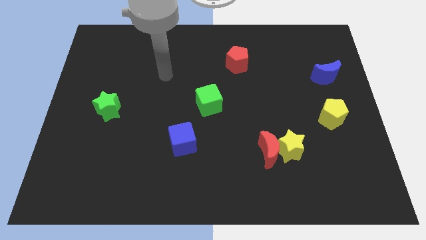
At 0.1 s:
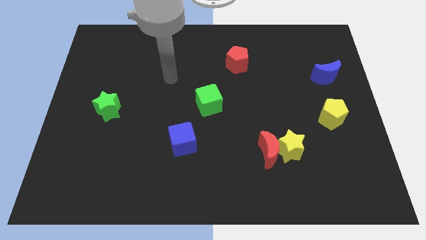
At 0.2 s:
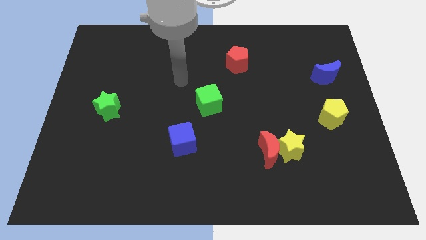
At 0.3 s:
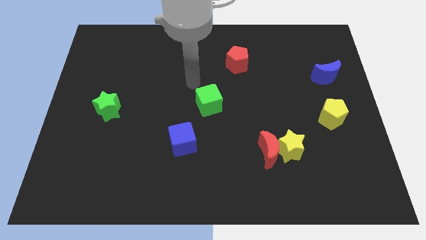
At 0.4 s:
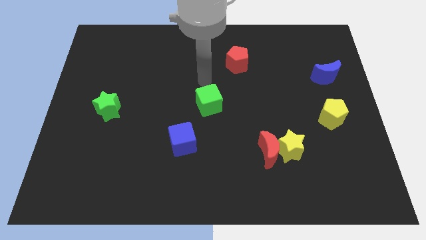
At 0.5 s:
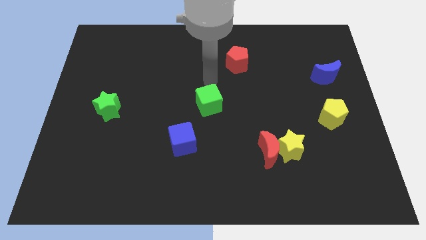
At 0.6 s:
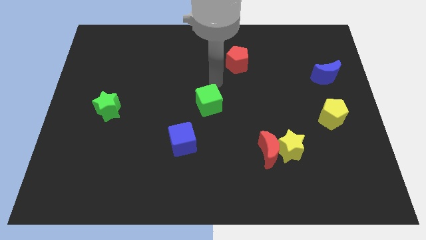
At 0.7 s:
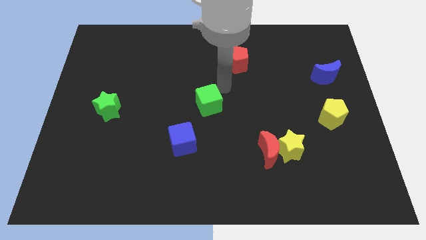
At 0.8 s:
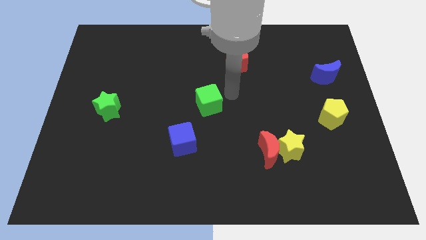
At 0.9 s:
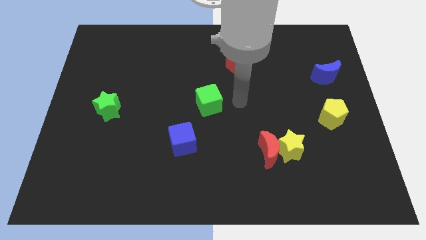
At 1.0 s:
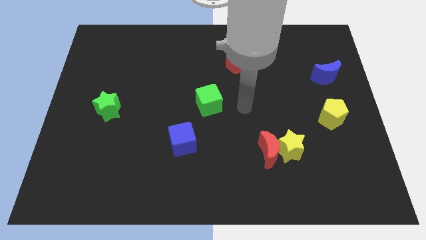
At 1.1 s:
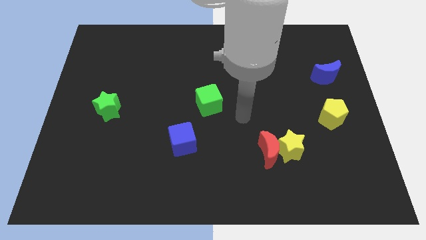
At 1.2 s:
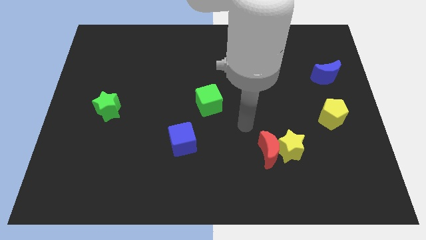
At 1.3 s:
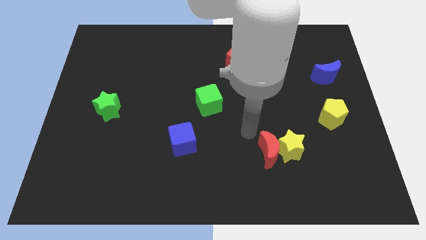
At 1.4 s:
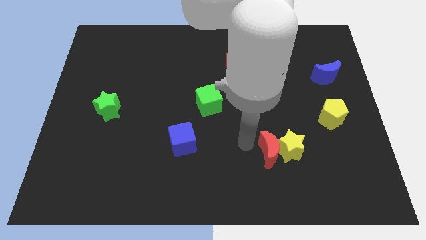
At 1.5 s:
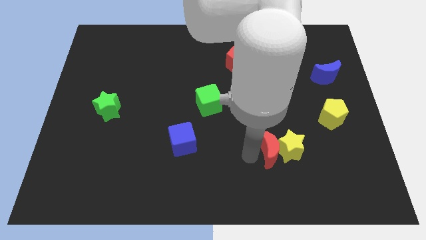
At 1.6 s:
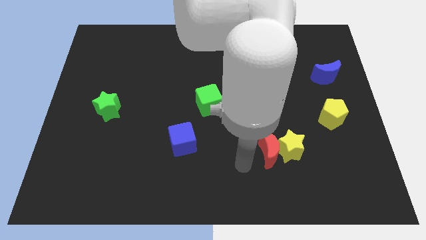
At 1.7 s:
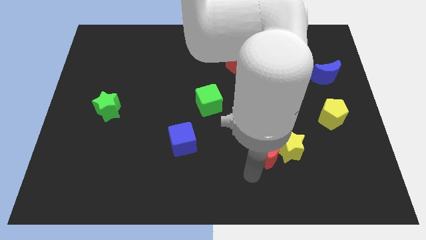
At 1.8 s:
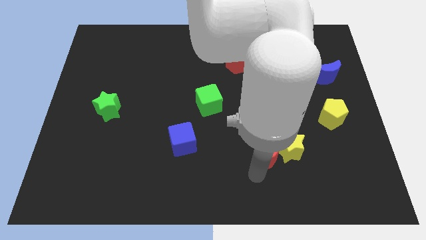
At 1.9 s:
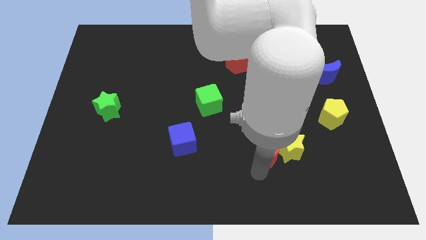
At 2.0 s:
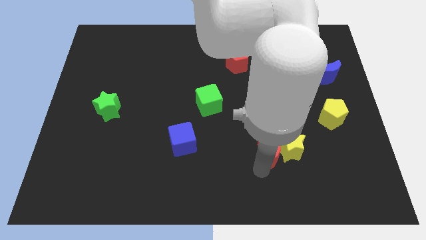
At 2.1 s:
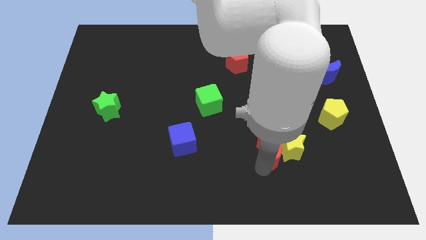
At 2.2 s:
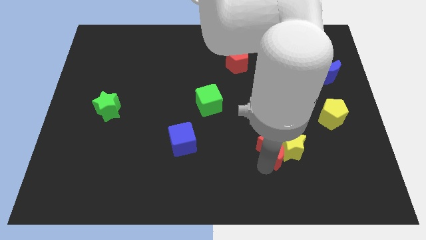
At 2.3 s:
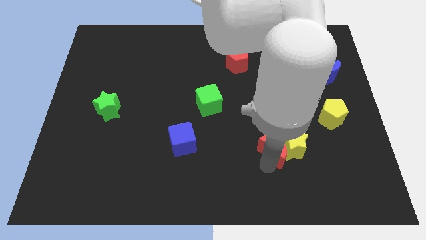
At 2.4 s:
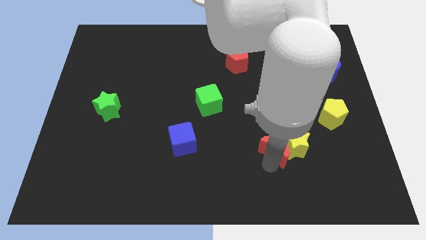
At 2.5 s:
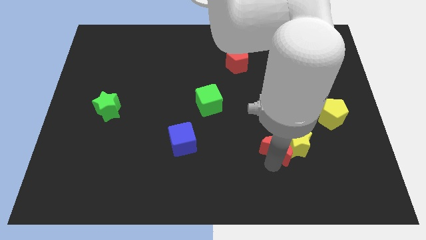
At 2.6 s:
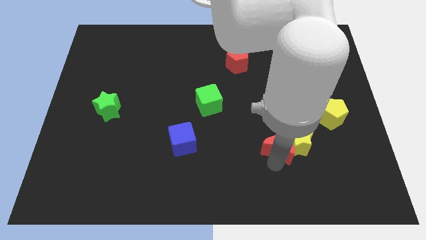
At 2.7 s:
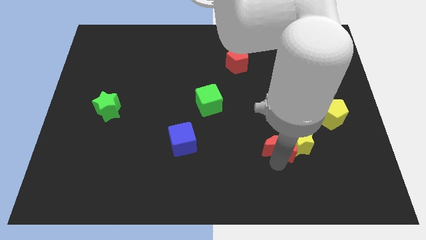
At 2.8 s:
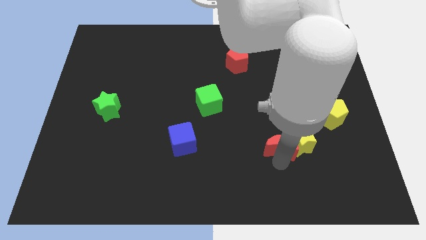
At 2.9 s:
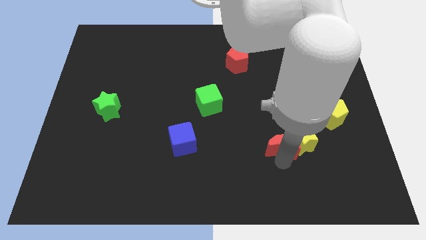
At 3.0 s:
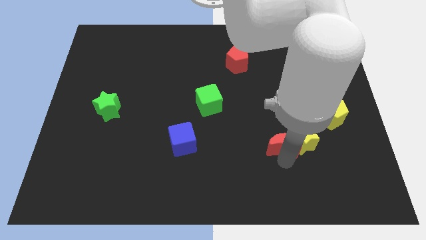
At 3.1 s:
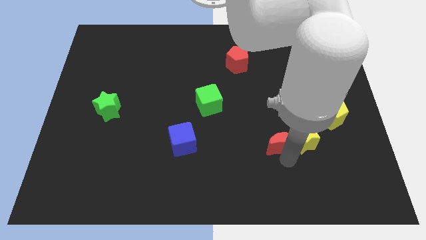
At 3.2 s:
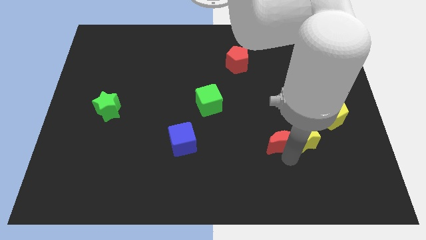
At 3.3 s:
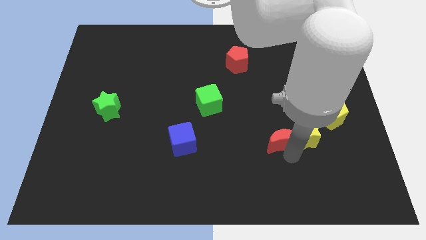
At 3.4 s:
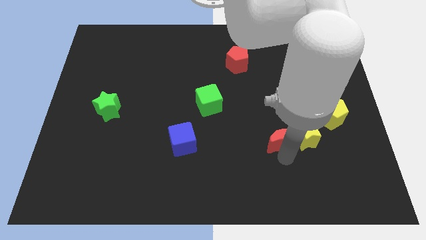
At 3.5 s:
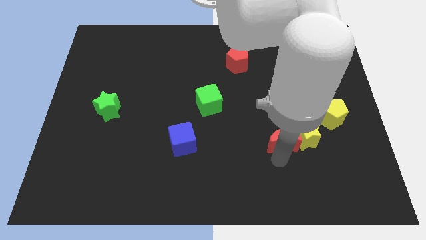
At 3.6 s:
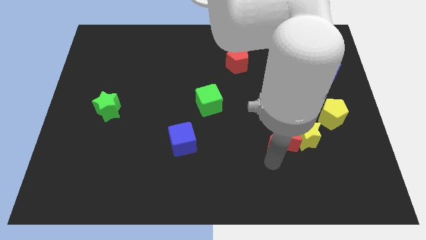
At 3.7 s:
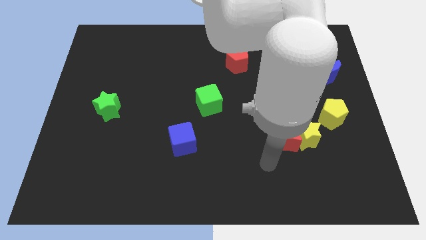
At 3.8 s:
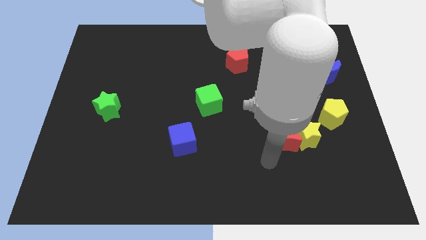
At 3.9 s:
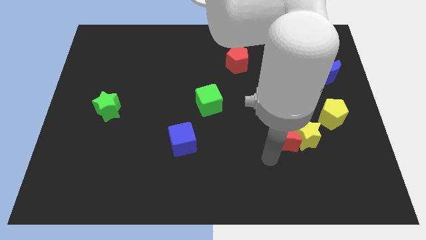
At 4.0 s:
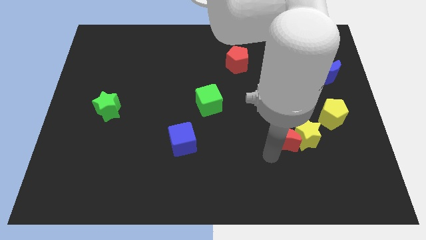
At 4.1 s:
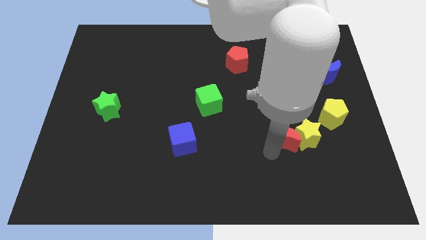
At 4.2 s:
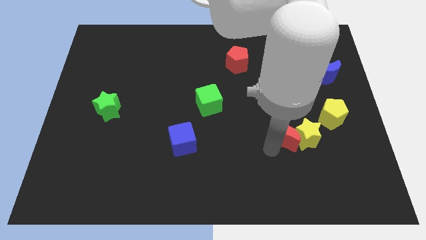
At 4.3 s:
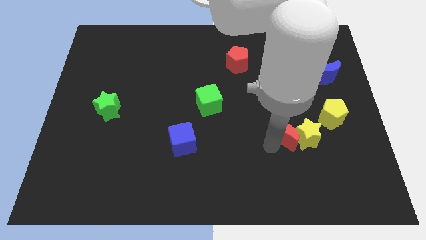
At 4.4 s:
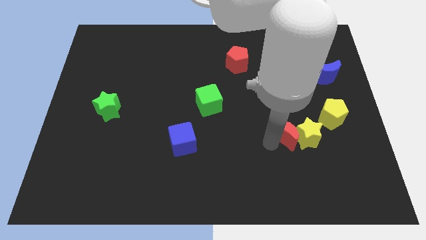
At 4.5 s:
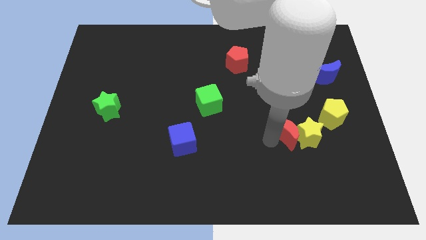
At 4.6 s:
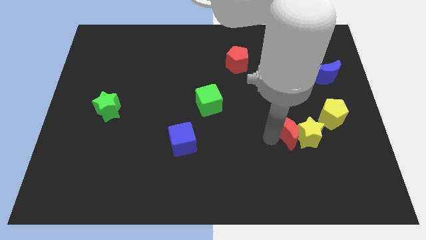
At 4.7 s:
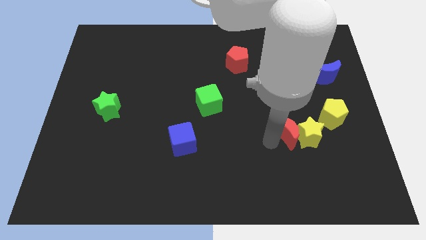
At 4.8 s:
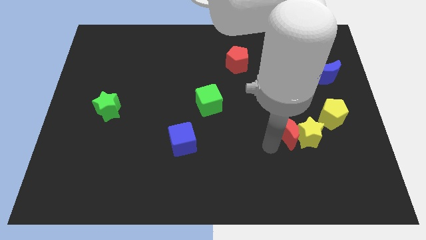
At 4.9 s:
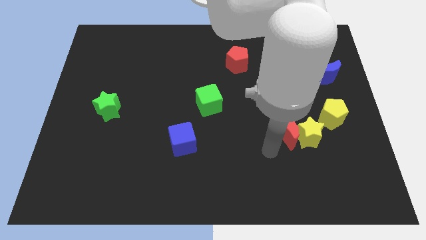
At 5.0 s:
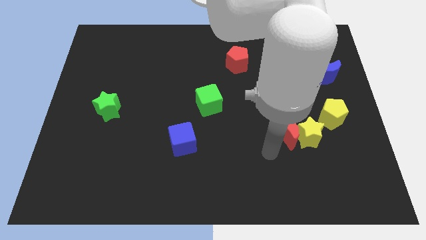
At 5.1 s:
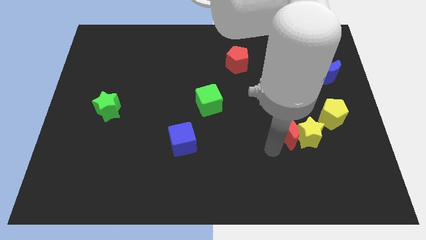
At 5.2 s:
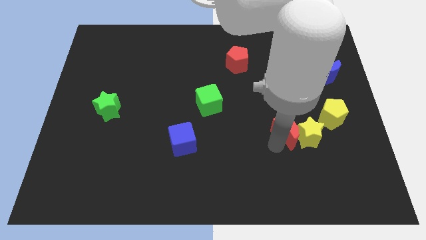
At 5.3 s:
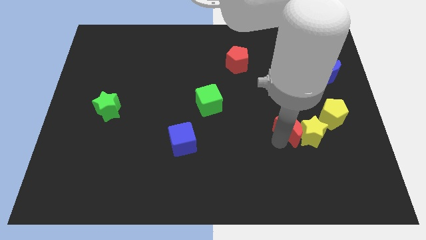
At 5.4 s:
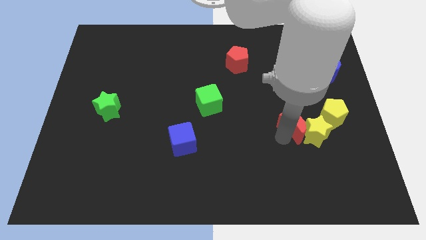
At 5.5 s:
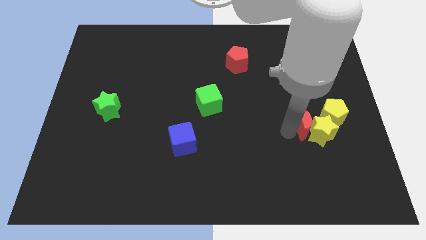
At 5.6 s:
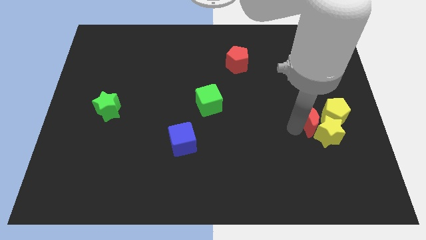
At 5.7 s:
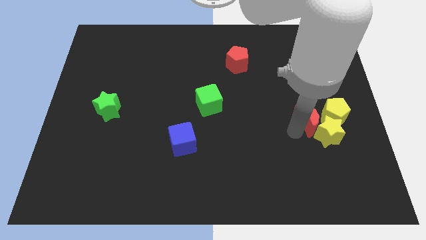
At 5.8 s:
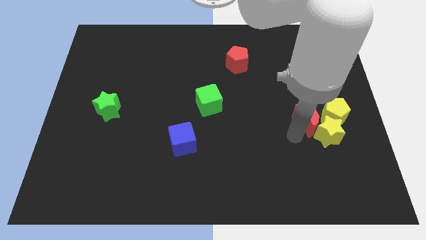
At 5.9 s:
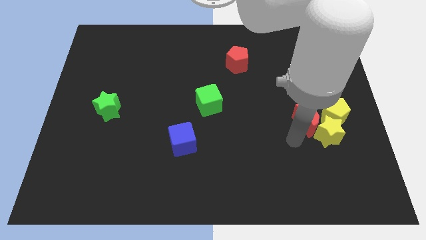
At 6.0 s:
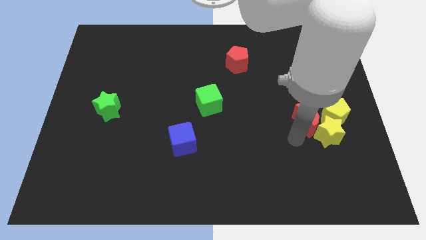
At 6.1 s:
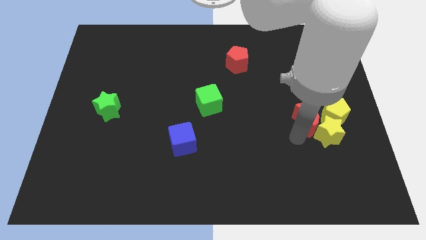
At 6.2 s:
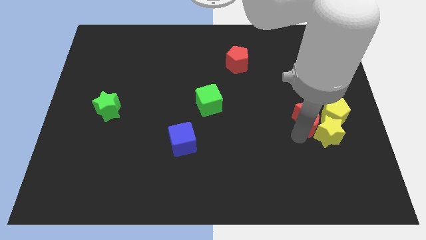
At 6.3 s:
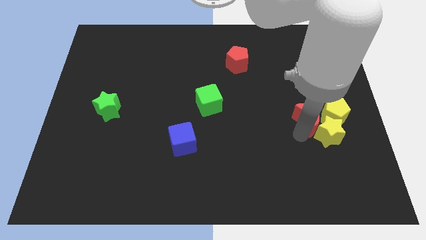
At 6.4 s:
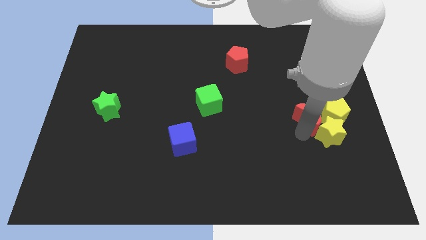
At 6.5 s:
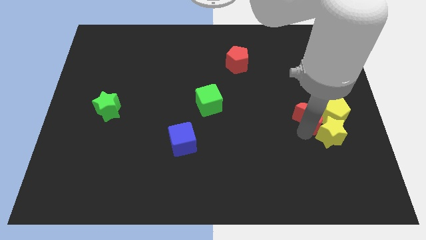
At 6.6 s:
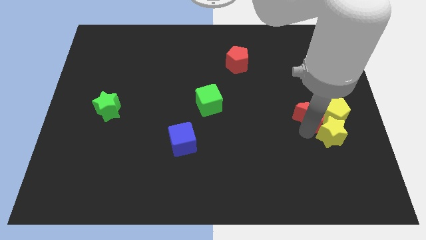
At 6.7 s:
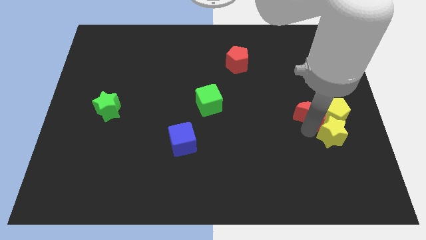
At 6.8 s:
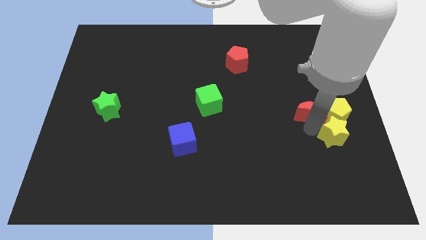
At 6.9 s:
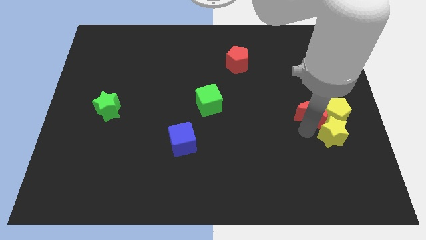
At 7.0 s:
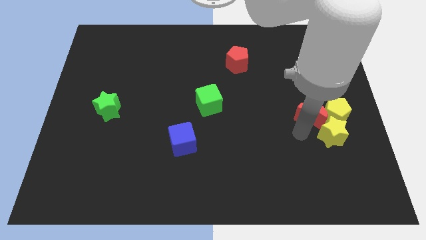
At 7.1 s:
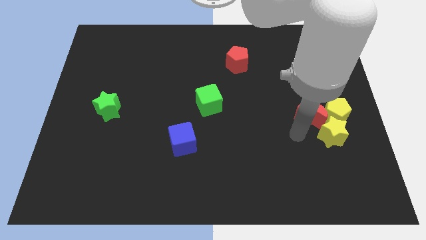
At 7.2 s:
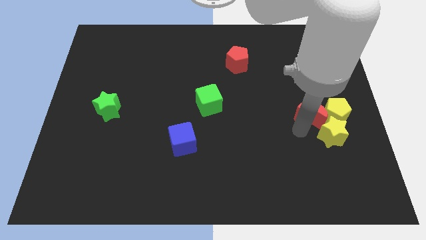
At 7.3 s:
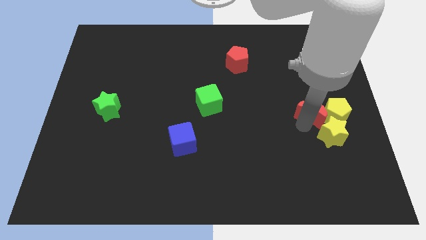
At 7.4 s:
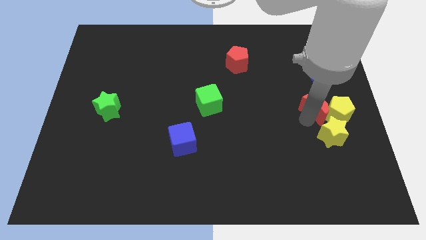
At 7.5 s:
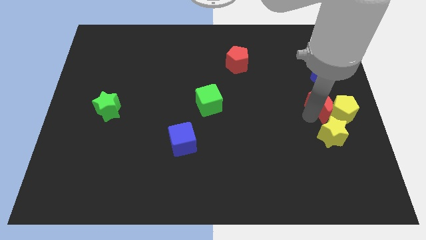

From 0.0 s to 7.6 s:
slide the red moon to the right side
